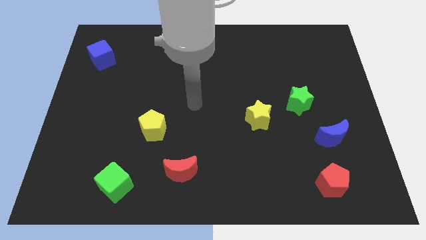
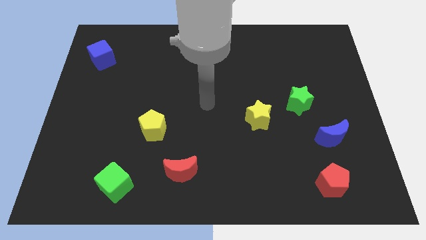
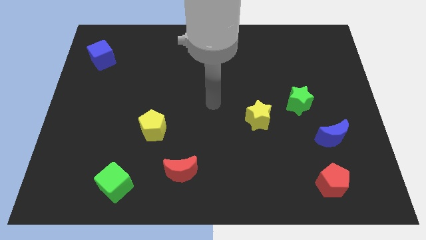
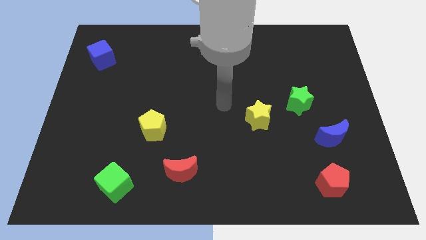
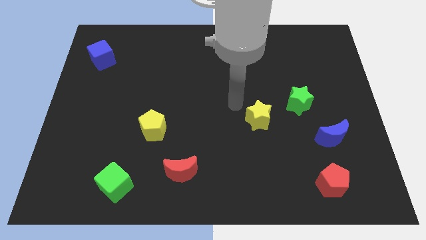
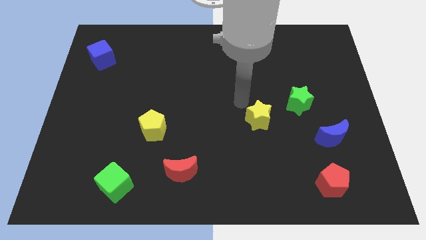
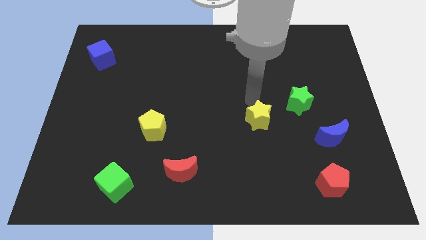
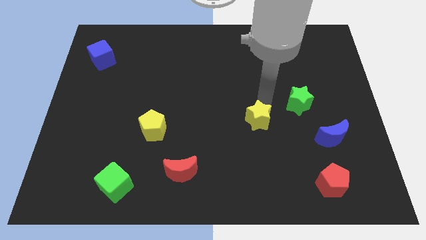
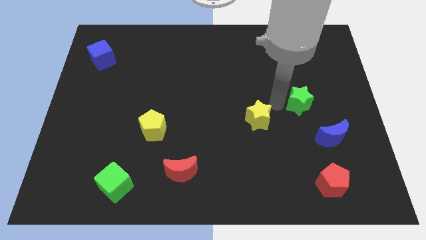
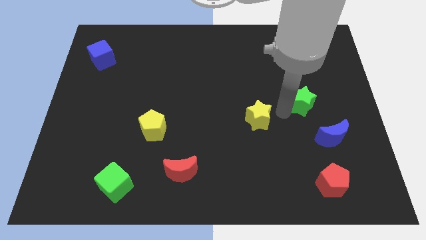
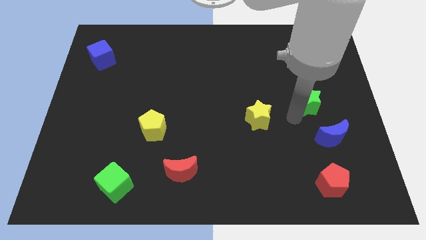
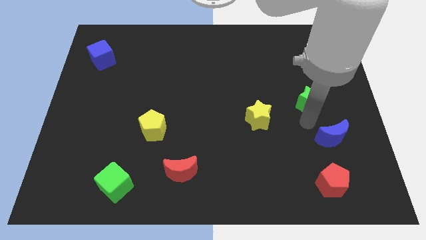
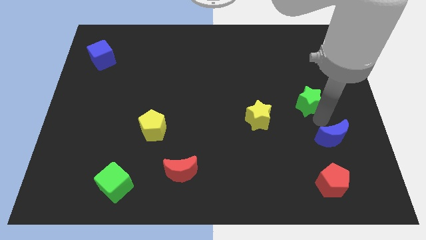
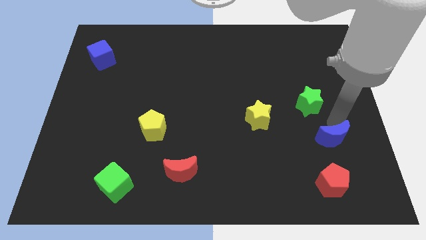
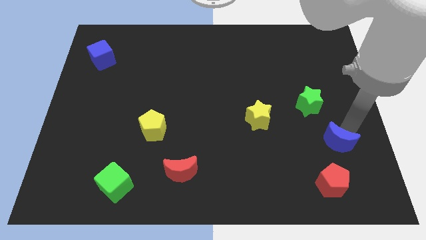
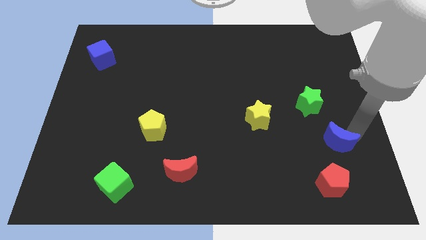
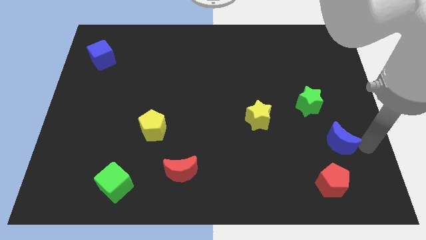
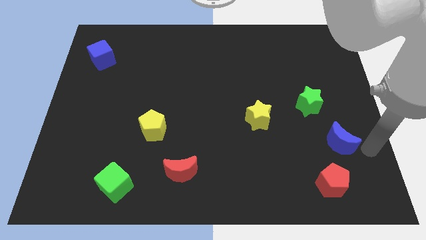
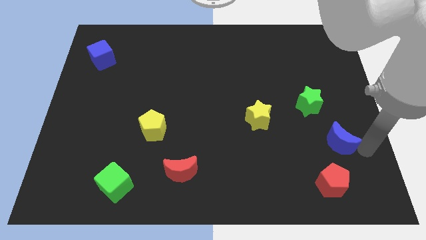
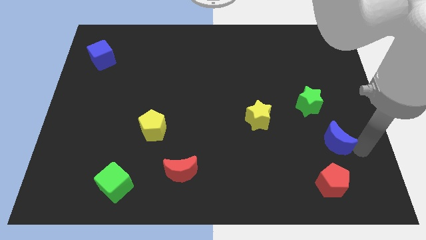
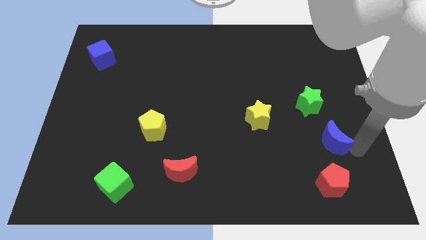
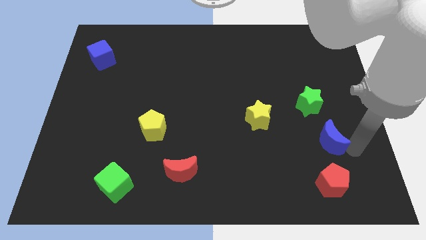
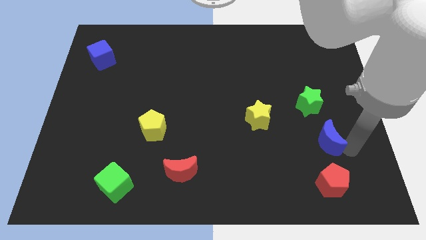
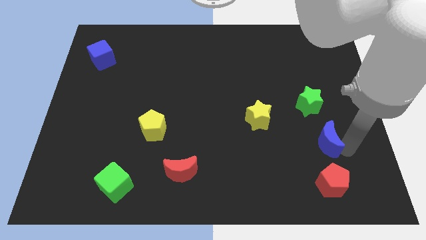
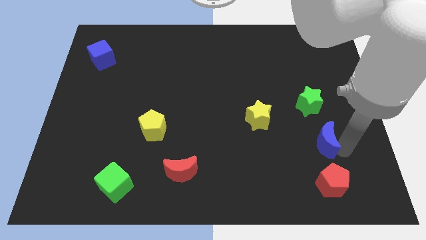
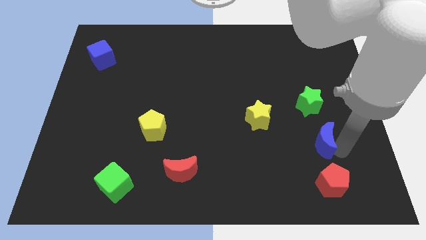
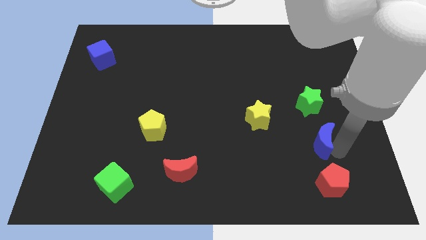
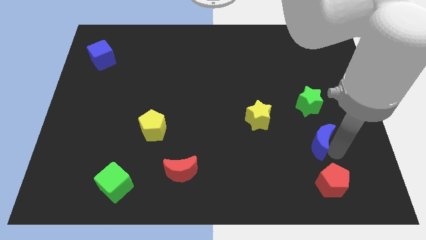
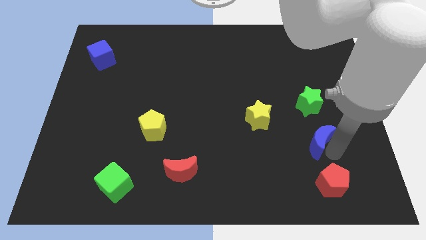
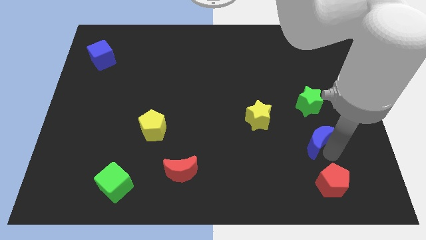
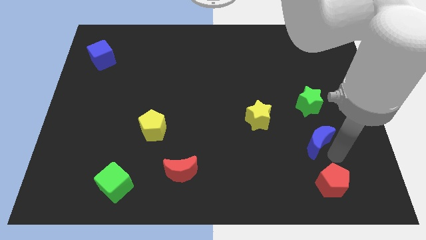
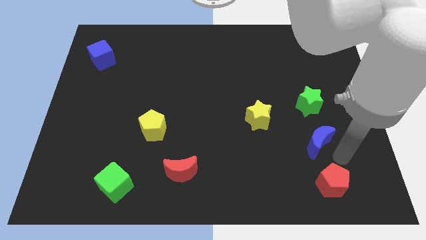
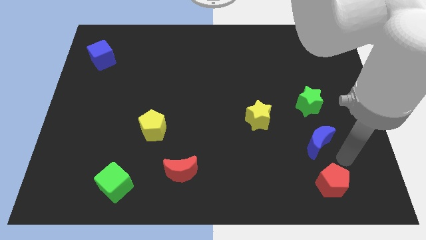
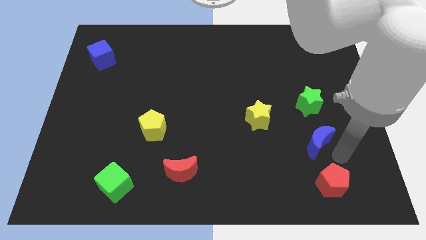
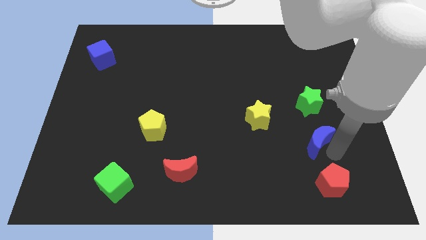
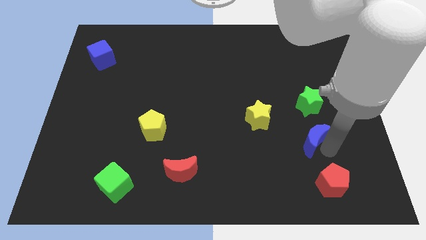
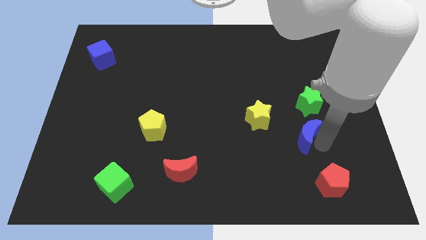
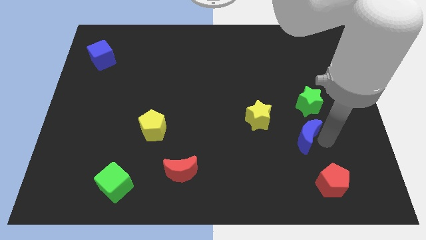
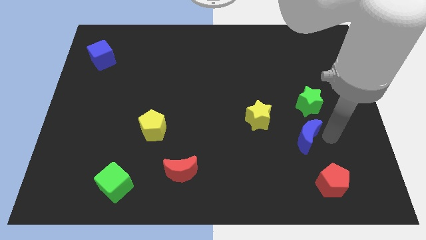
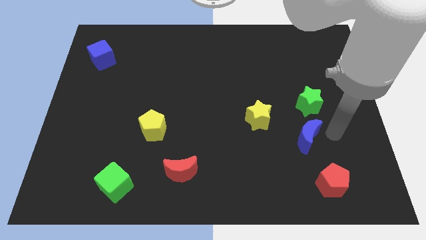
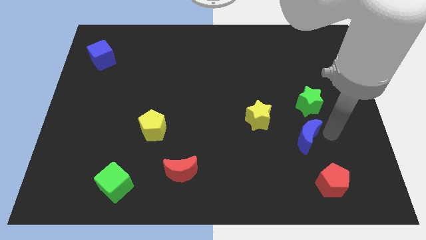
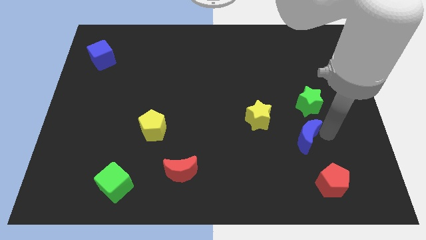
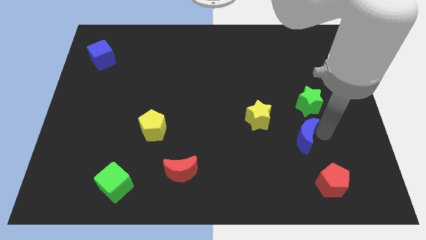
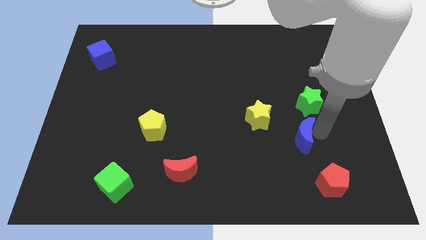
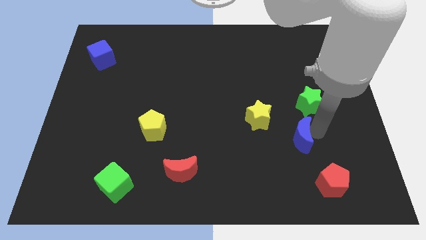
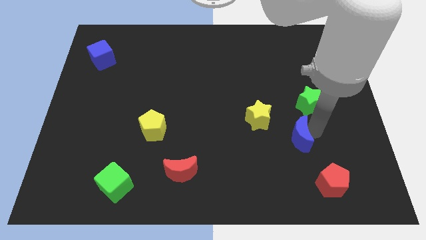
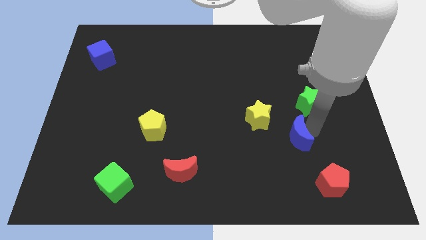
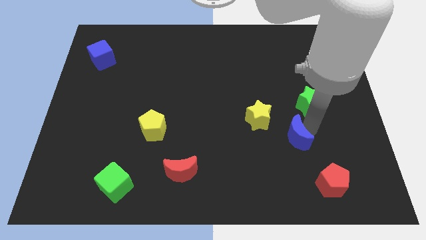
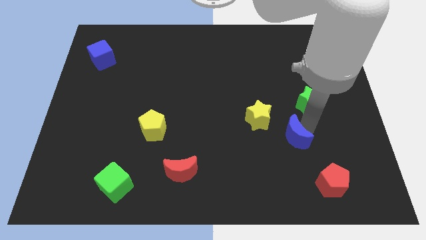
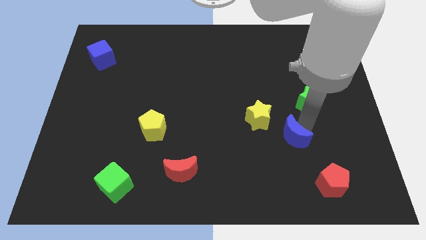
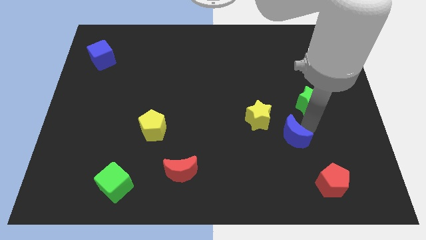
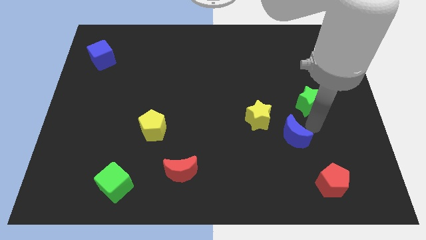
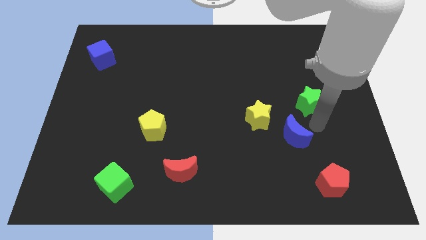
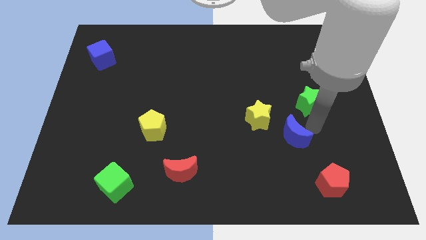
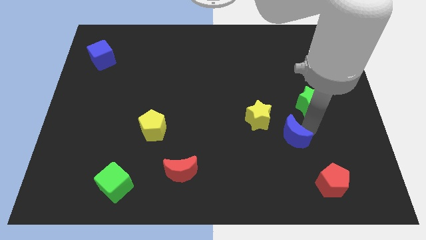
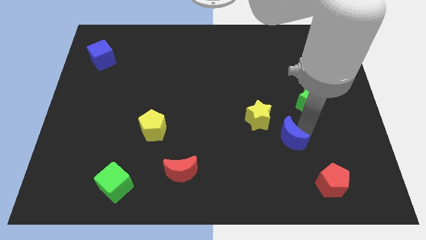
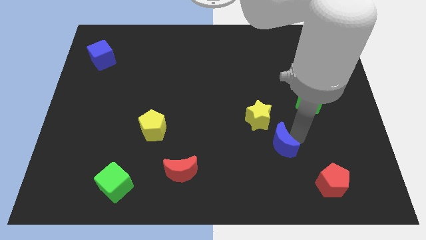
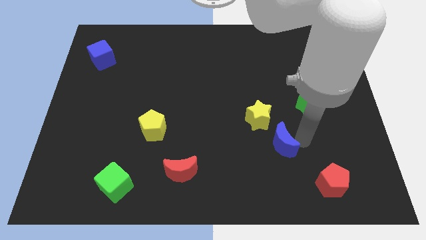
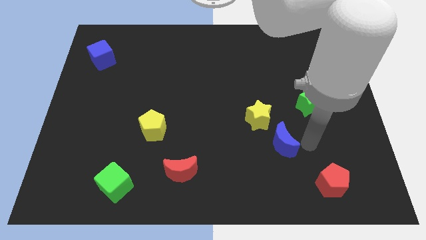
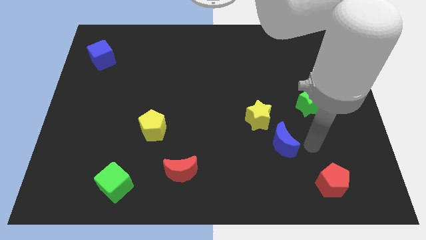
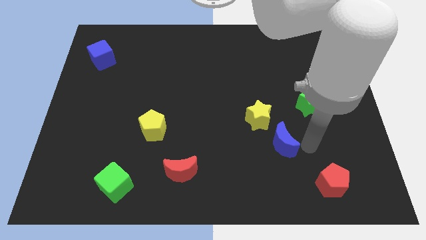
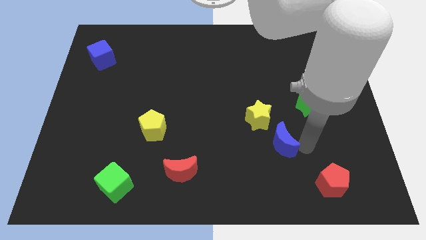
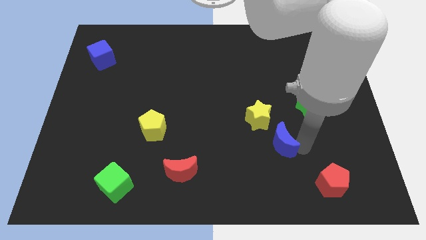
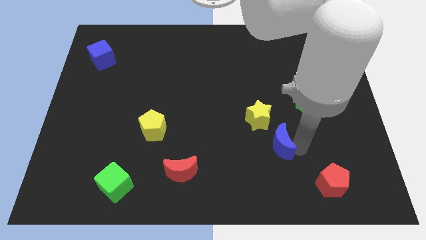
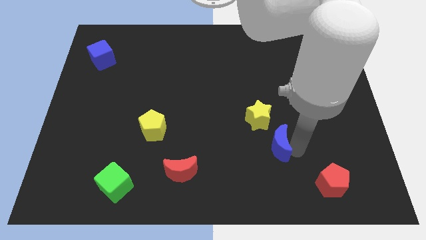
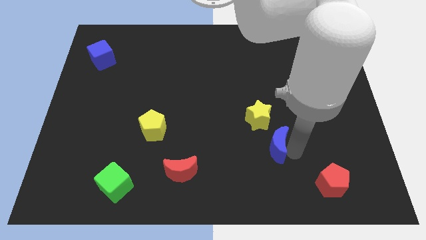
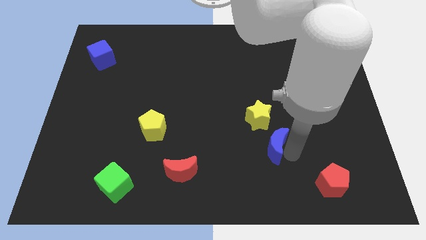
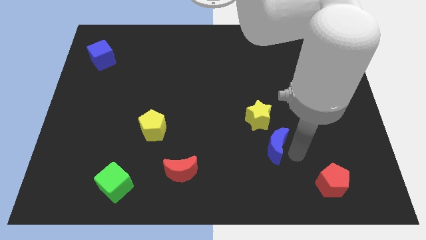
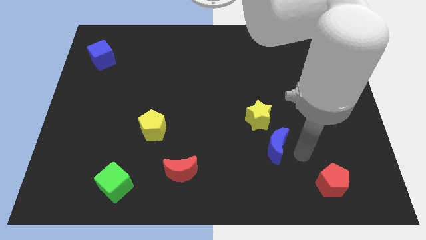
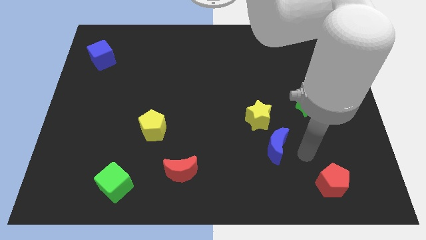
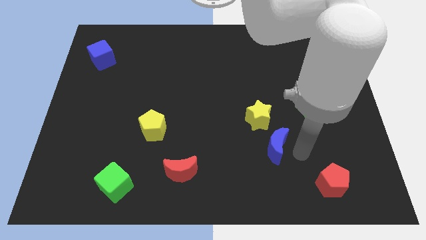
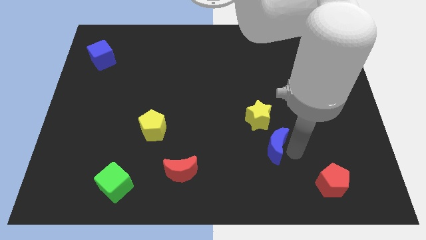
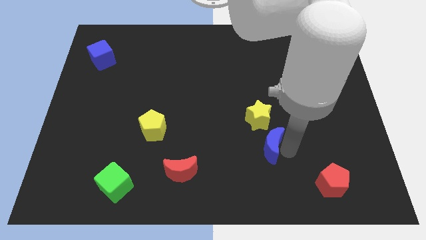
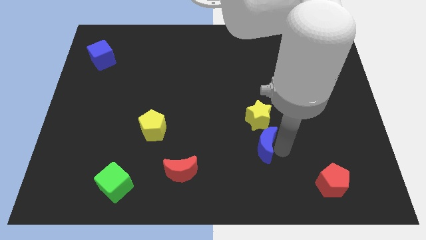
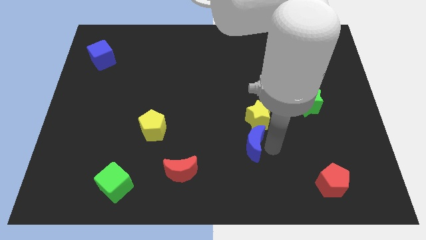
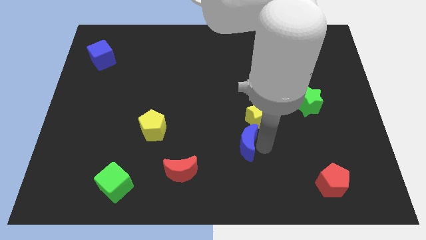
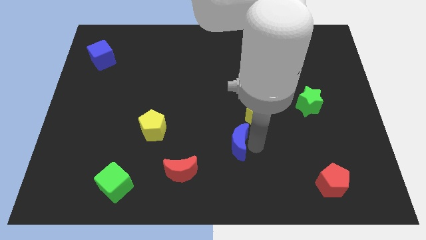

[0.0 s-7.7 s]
slide the blue moon left

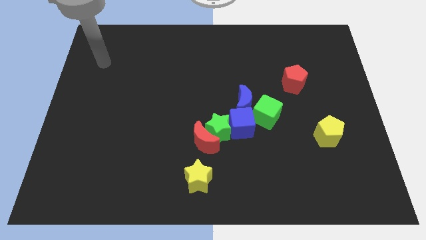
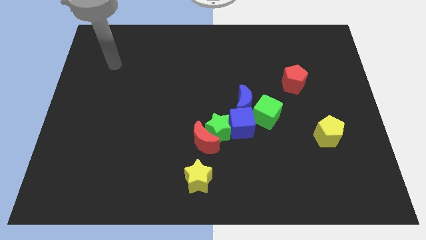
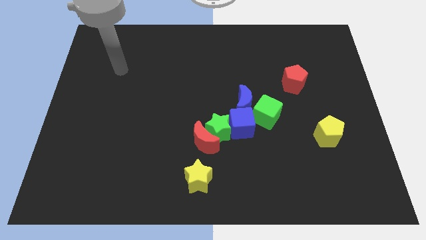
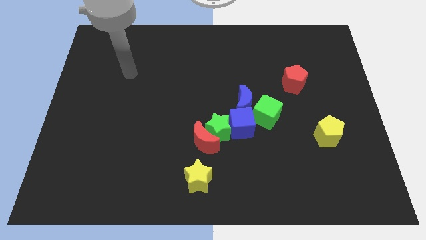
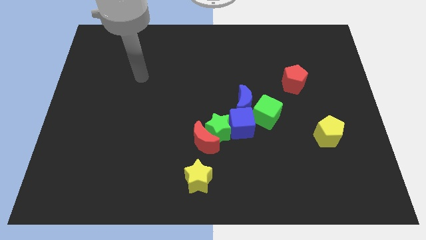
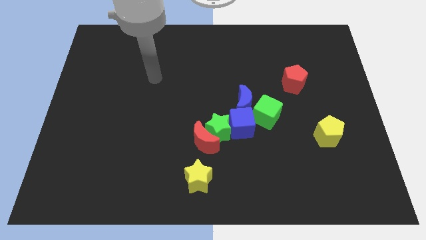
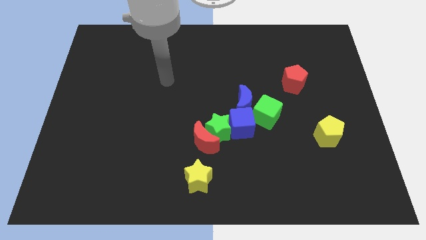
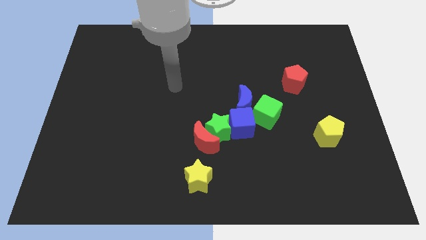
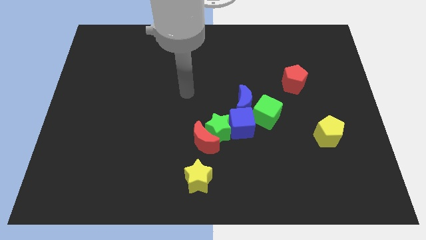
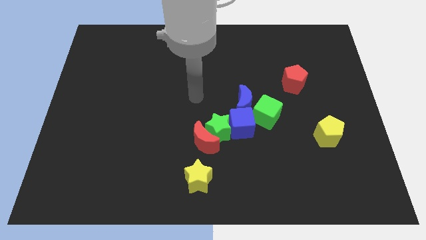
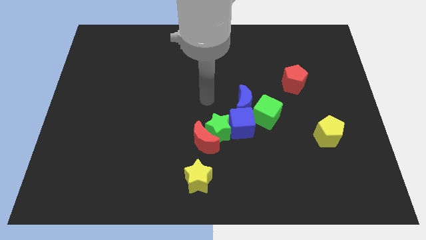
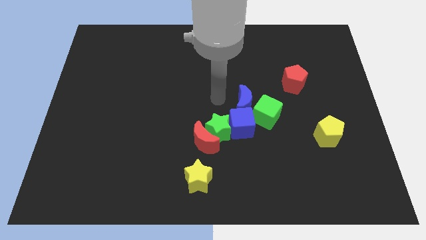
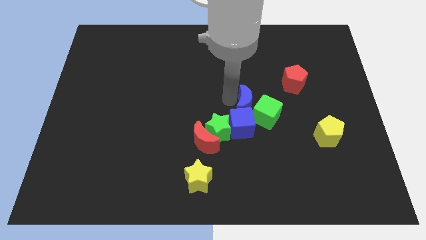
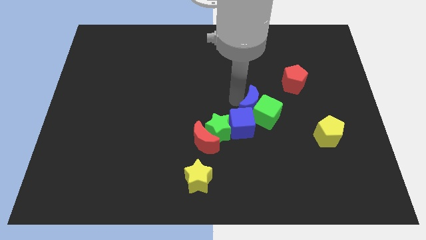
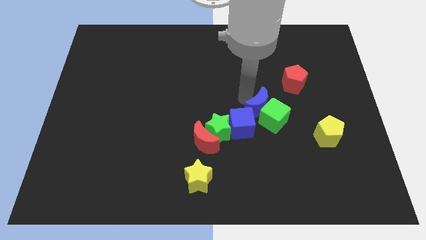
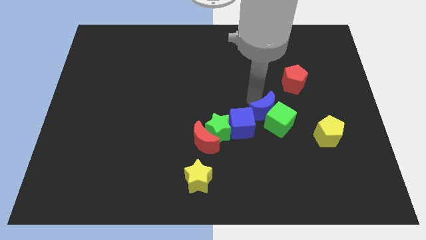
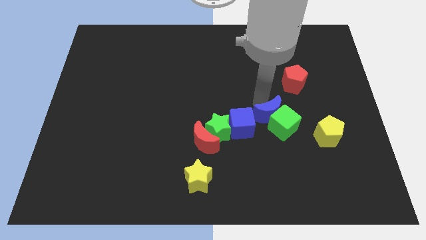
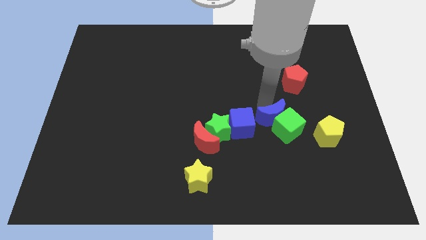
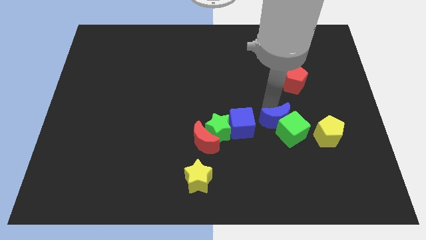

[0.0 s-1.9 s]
move the green cube diagonally down and right a bit
